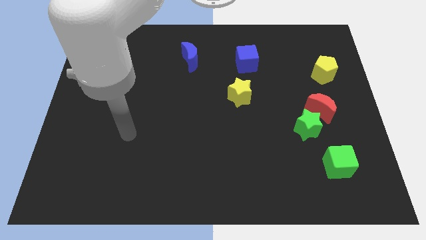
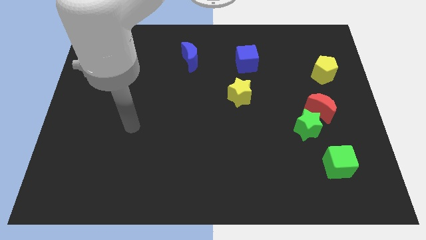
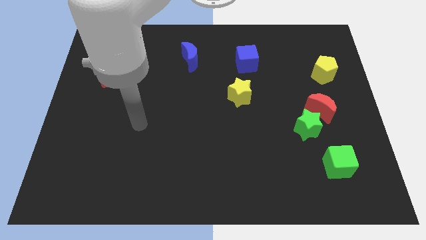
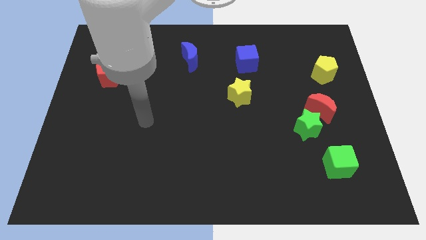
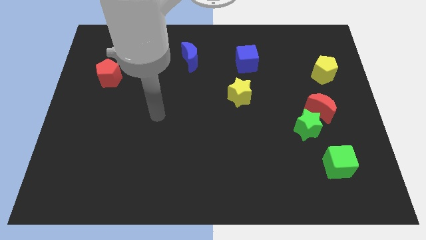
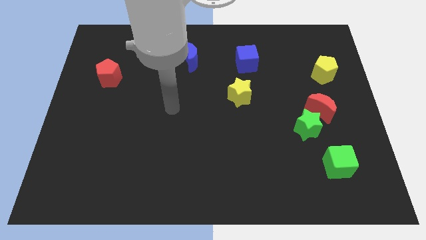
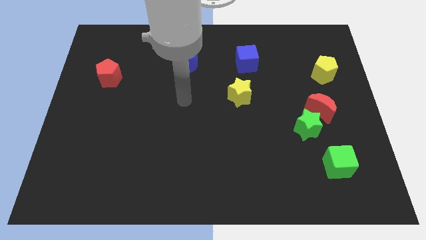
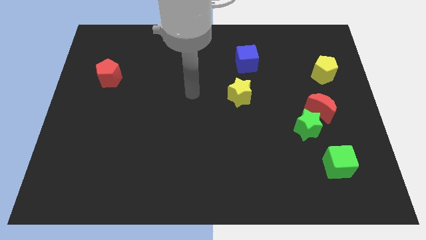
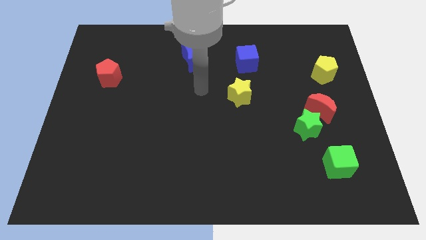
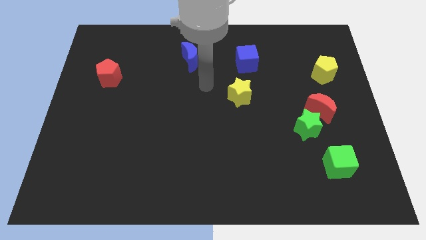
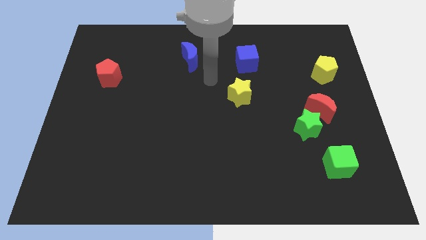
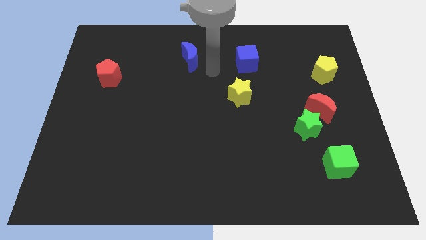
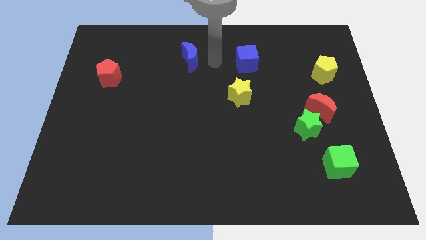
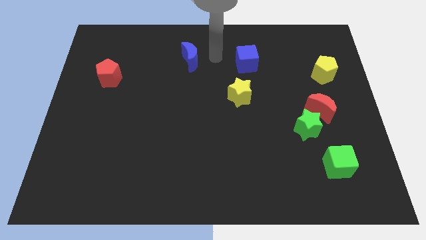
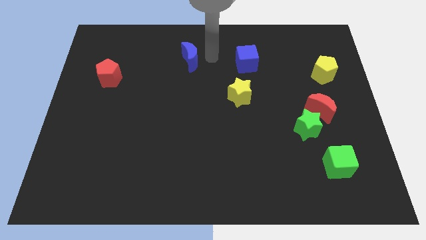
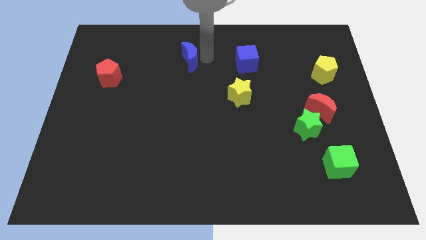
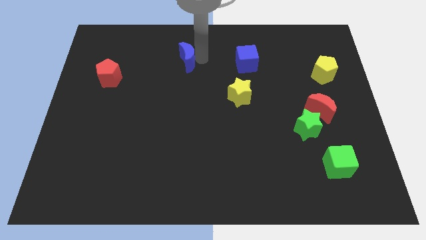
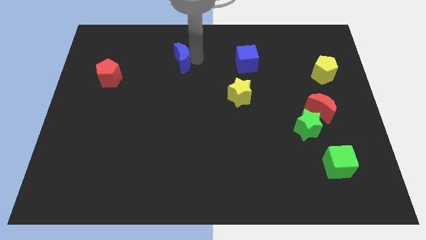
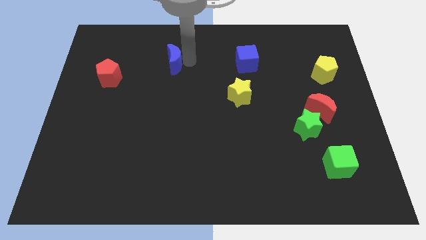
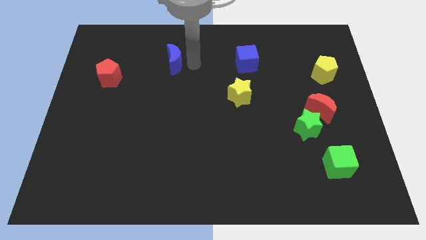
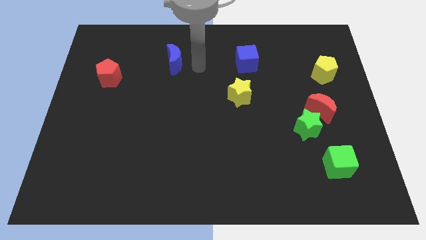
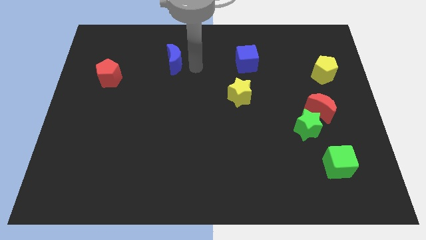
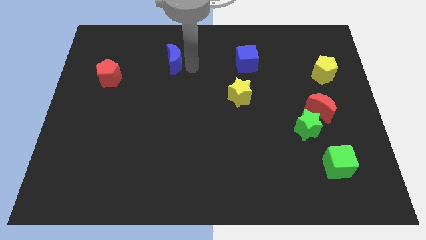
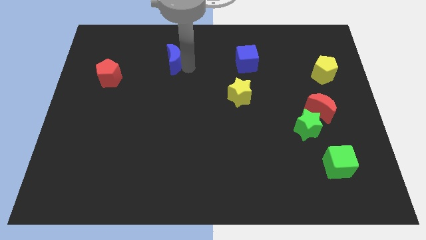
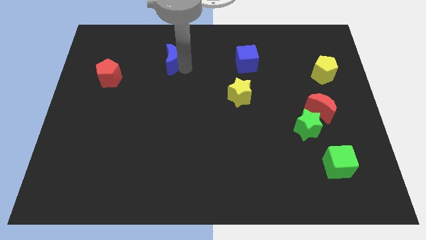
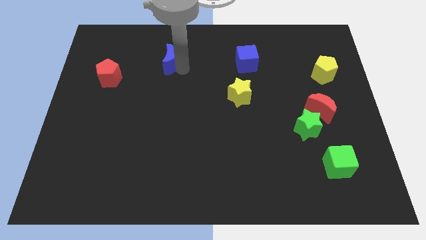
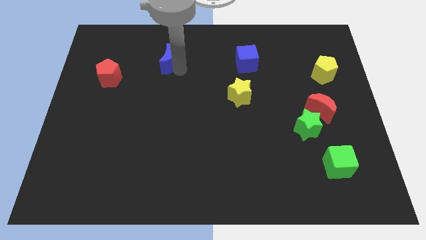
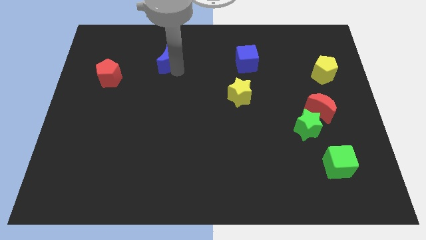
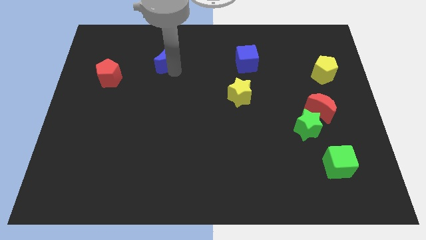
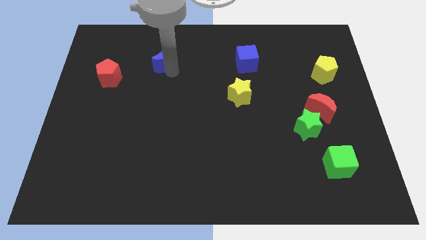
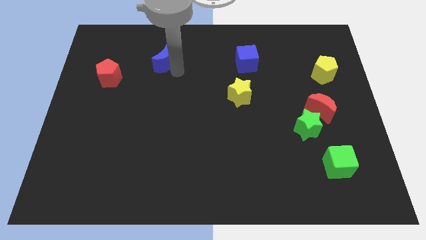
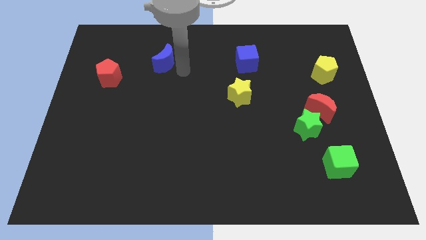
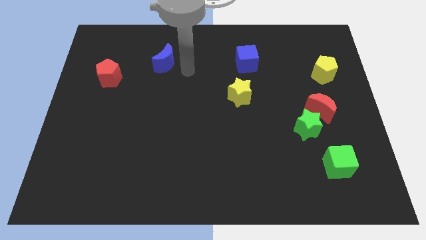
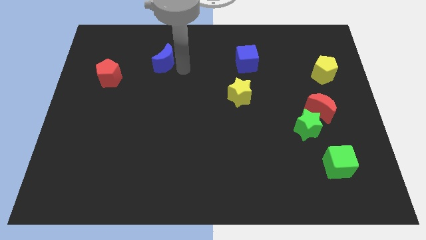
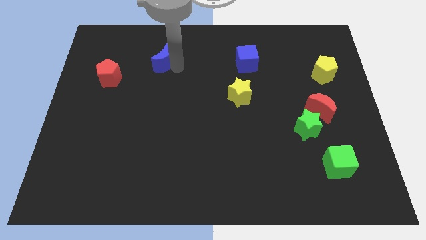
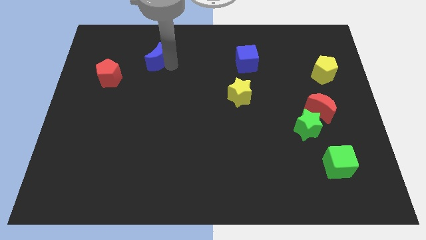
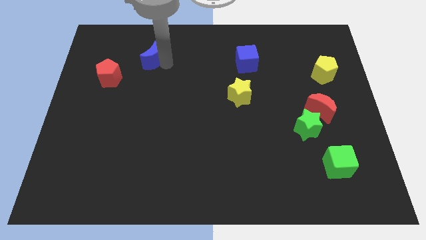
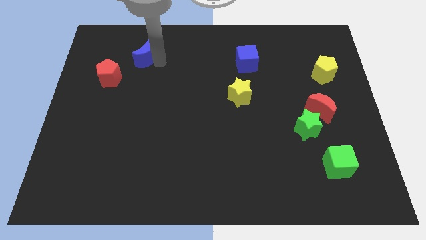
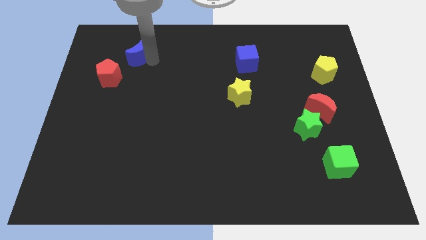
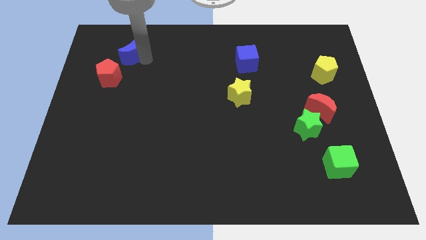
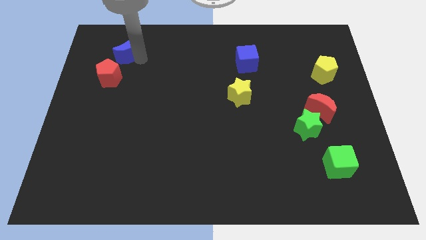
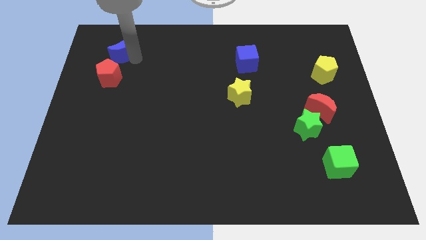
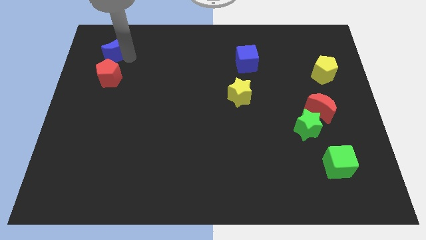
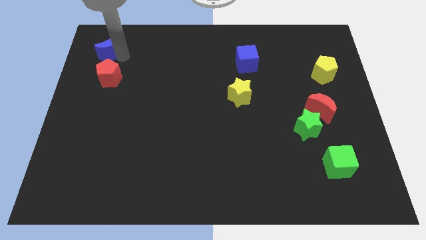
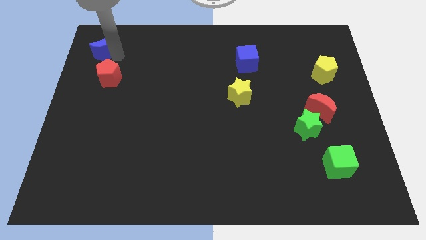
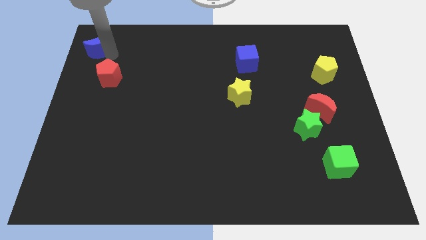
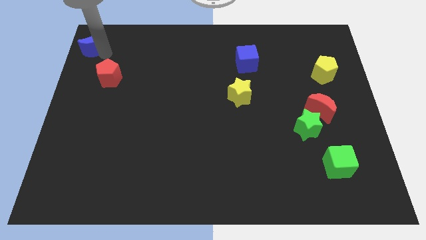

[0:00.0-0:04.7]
slide the blue moon to the upper left corner

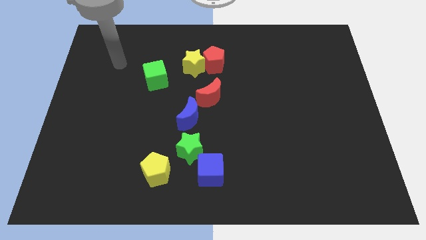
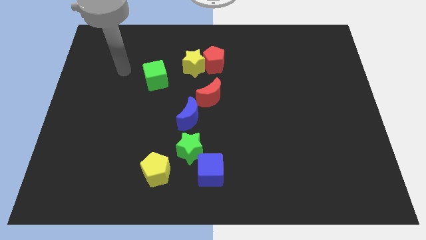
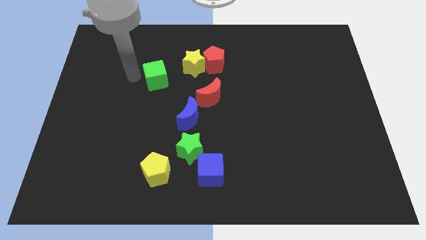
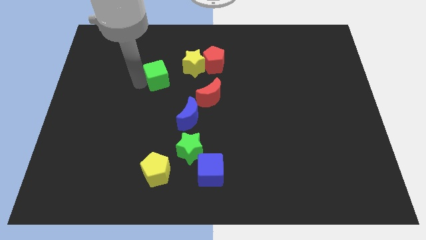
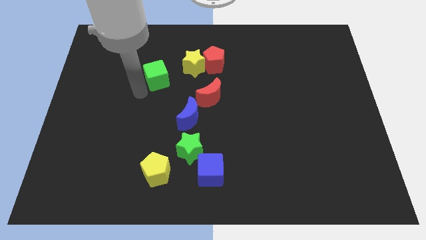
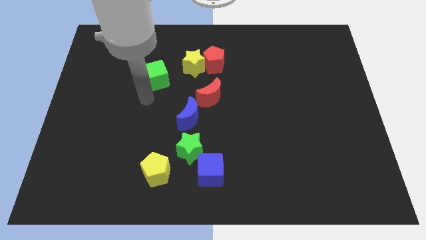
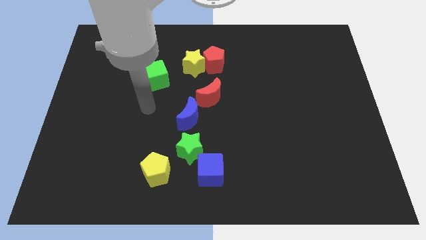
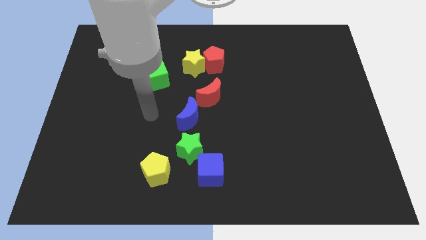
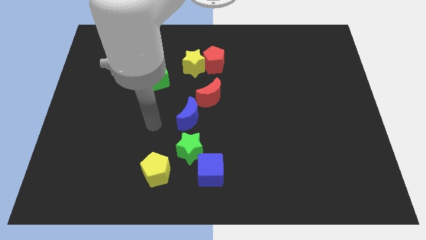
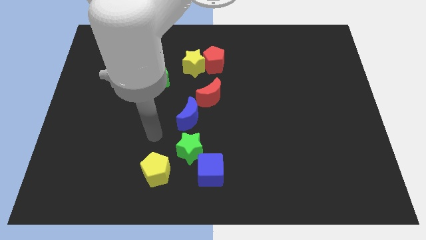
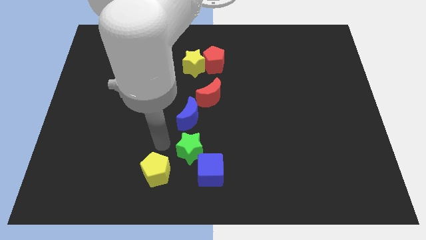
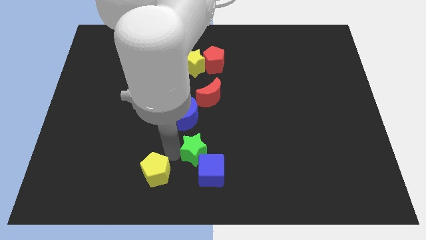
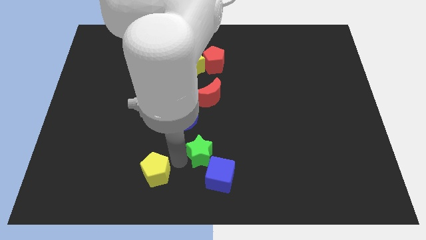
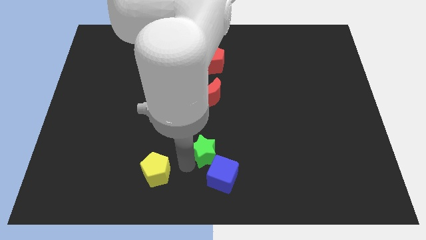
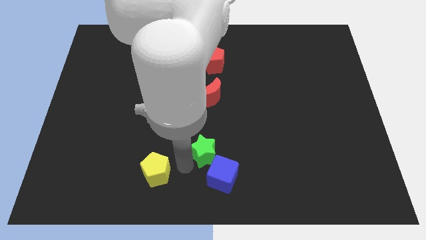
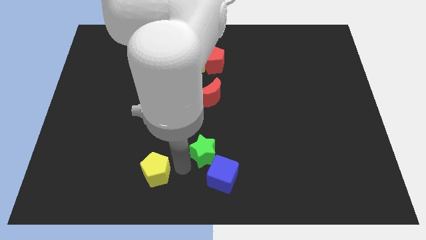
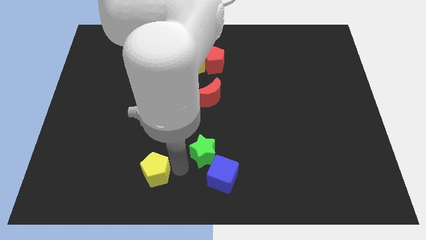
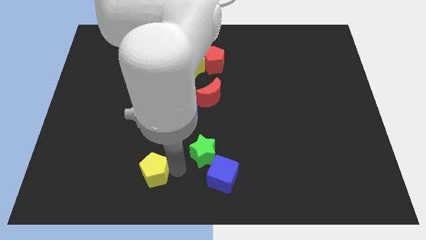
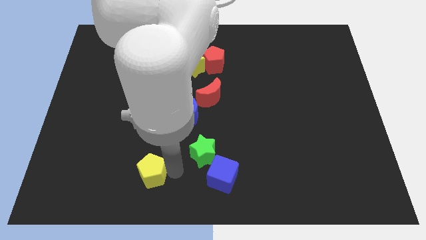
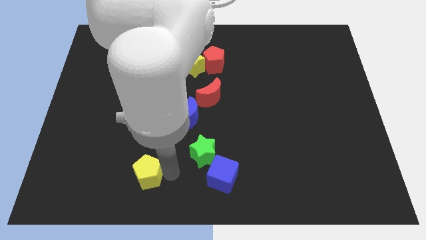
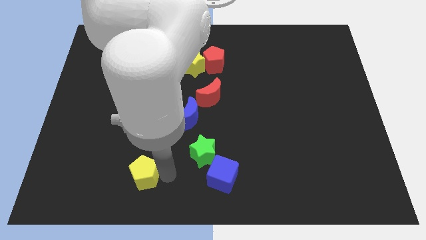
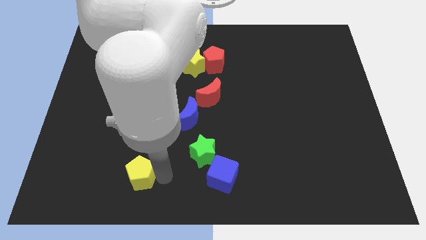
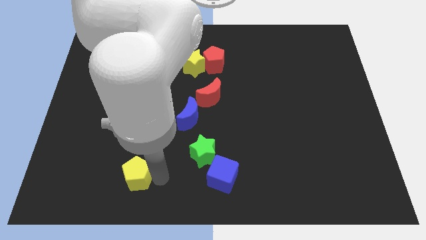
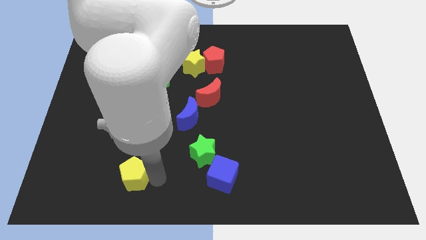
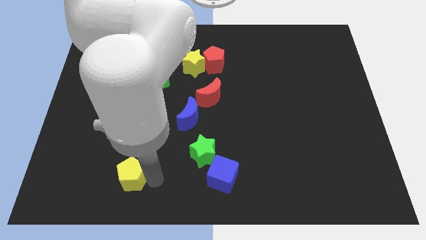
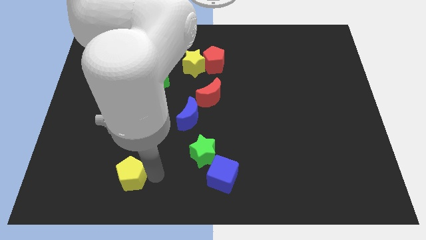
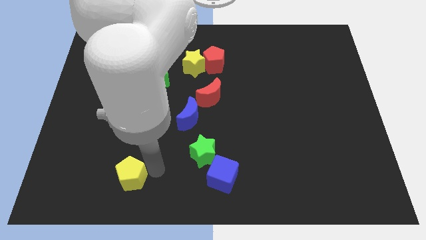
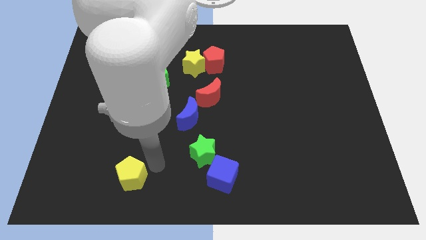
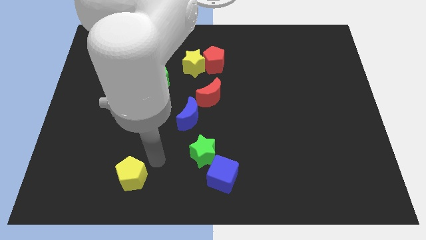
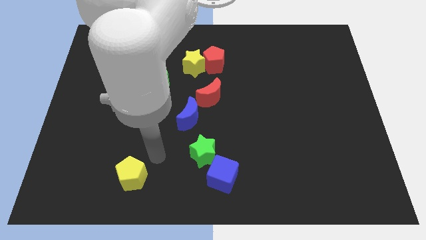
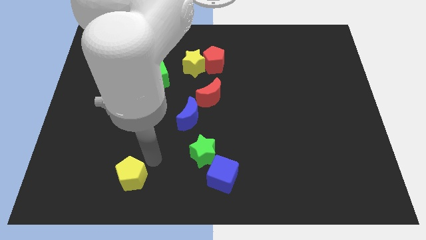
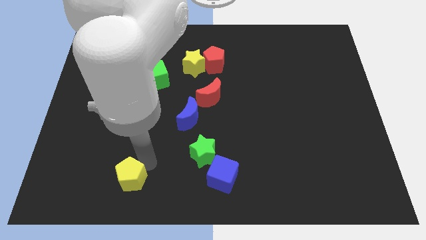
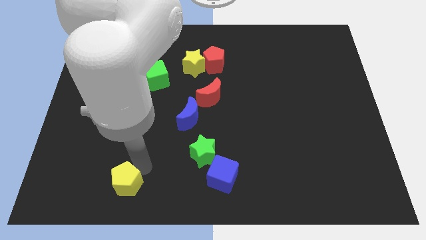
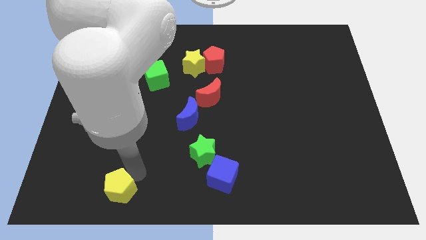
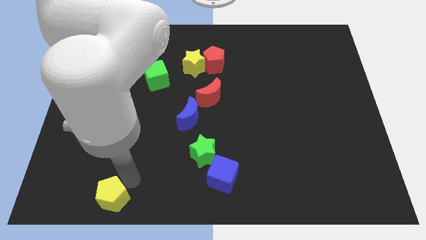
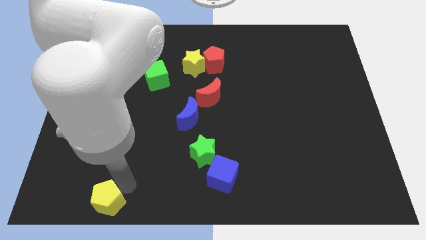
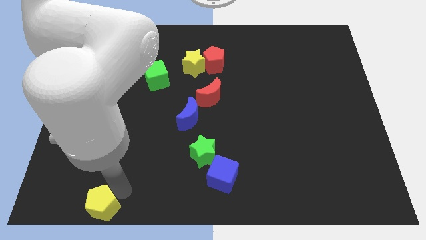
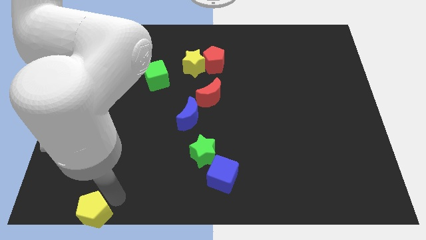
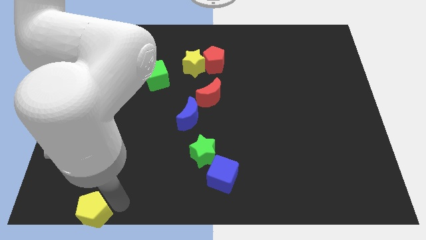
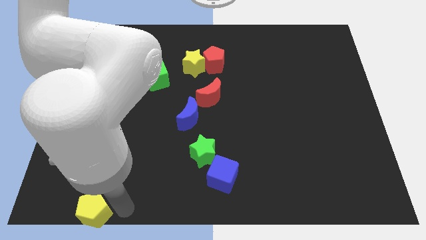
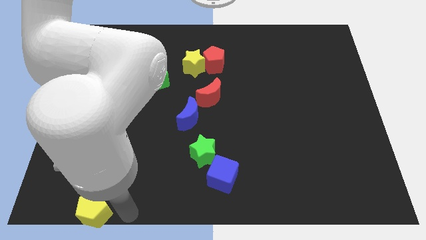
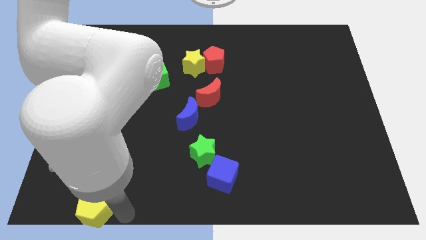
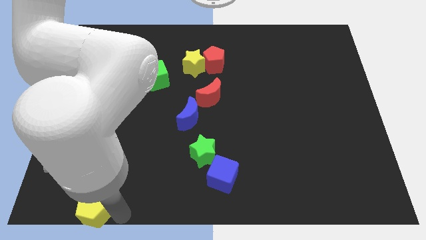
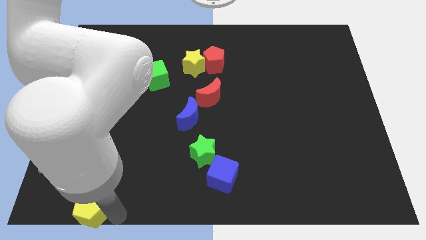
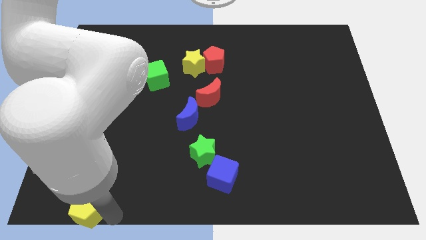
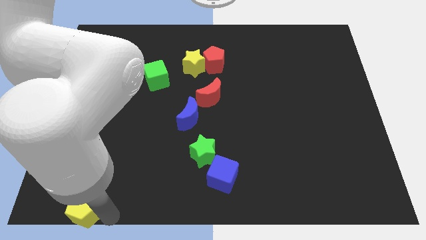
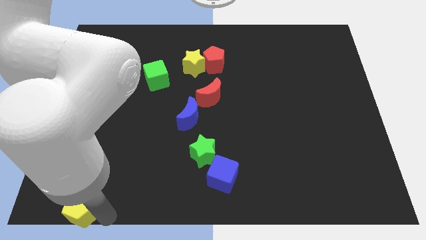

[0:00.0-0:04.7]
push the yellow pentagon to the bottom left corner
